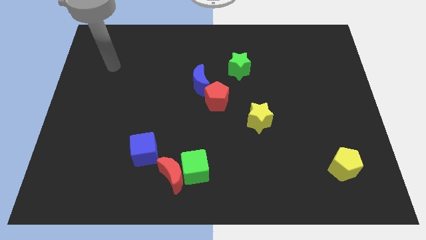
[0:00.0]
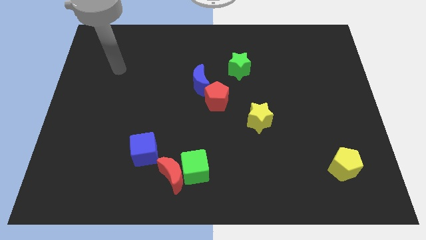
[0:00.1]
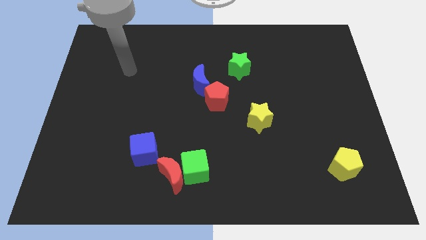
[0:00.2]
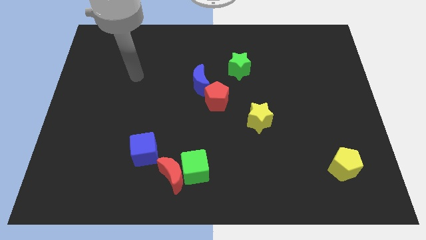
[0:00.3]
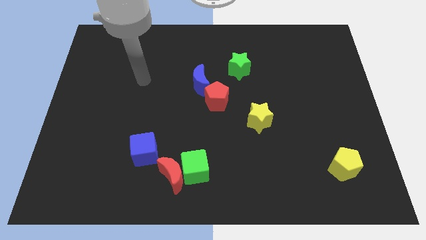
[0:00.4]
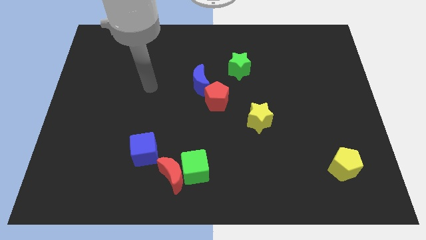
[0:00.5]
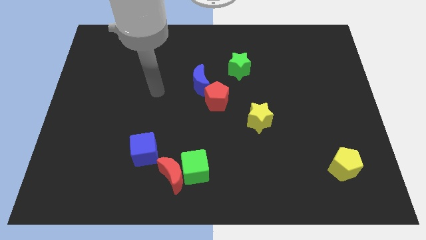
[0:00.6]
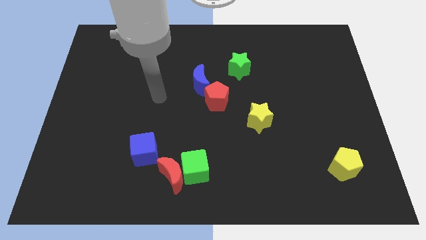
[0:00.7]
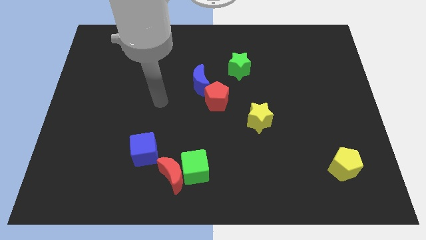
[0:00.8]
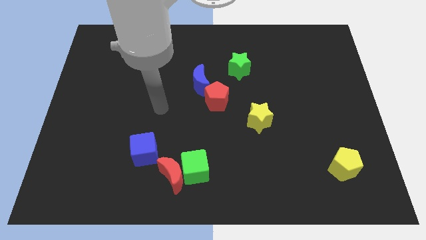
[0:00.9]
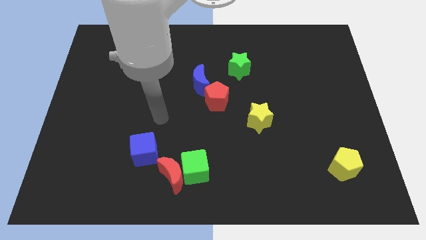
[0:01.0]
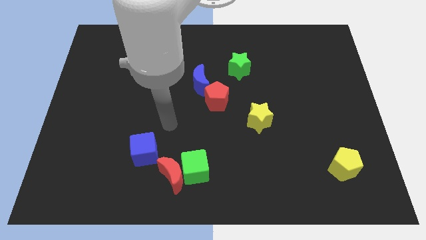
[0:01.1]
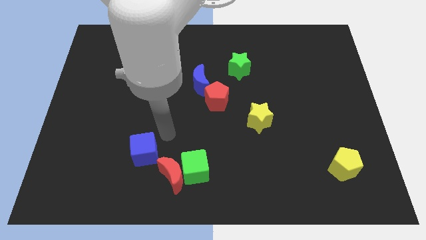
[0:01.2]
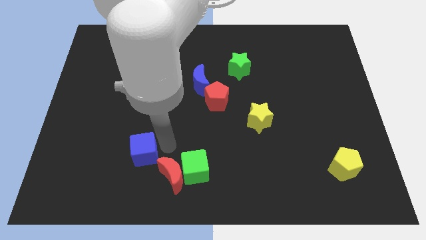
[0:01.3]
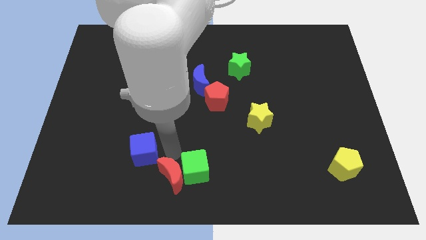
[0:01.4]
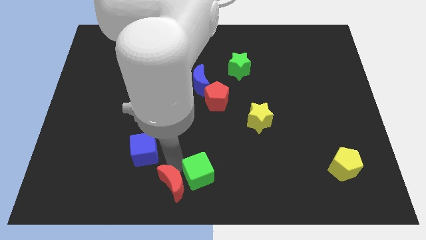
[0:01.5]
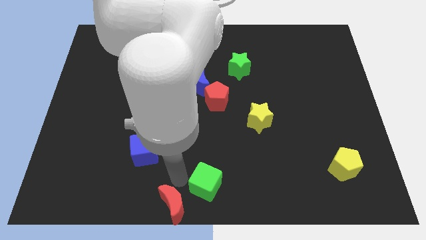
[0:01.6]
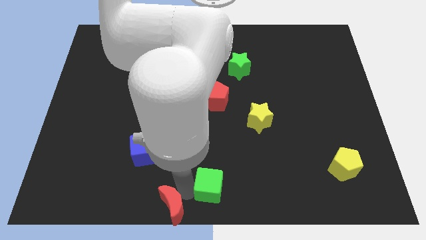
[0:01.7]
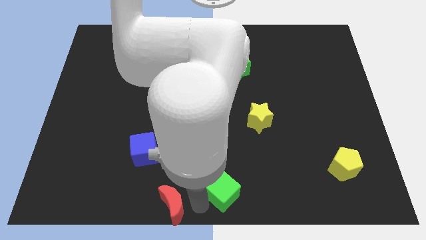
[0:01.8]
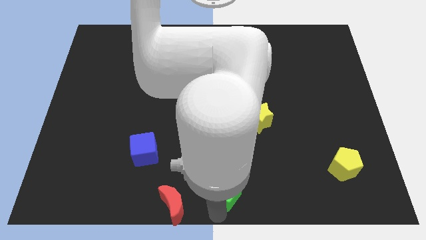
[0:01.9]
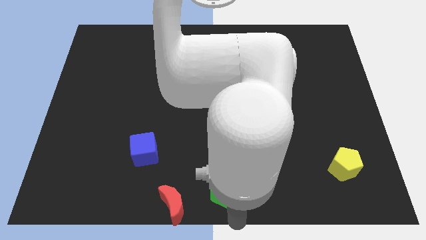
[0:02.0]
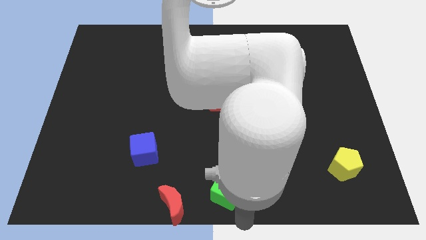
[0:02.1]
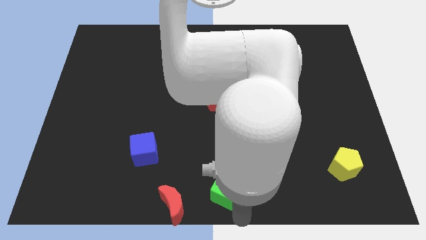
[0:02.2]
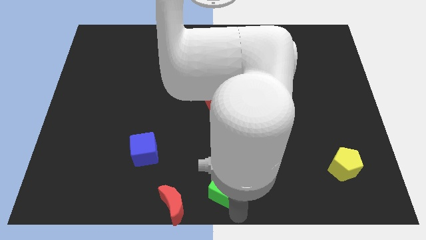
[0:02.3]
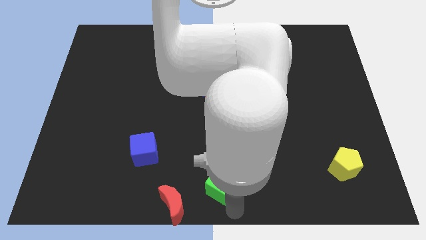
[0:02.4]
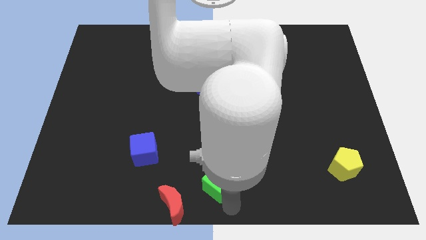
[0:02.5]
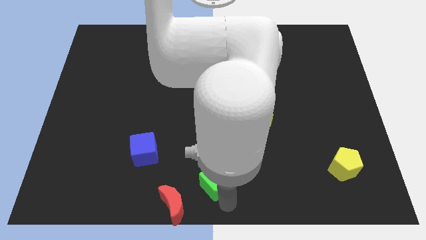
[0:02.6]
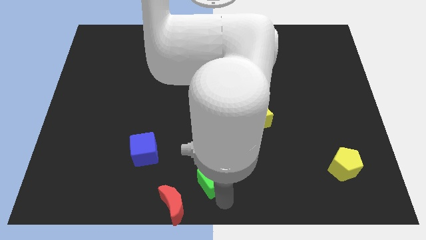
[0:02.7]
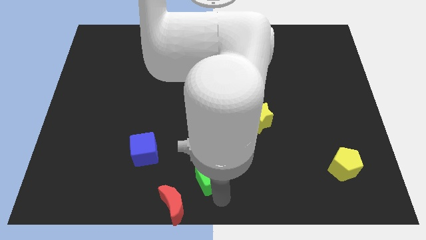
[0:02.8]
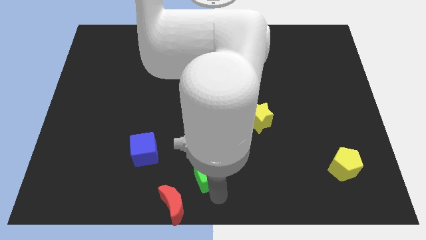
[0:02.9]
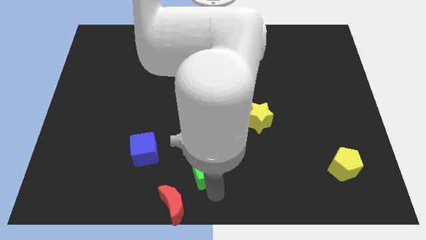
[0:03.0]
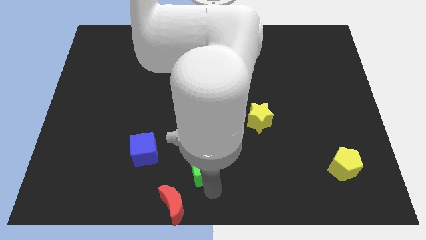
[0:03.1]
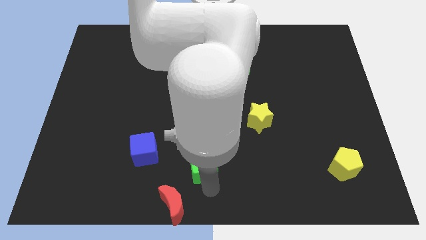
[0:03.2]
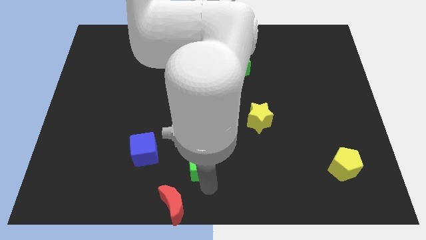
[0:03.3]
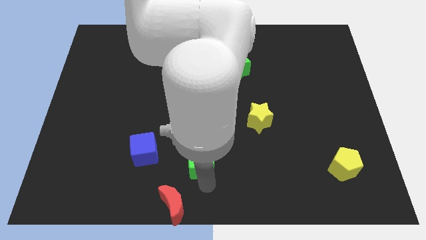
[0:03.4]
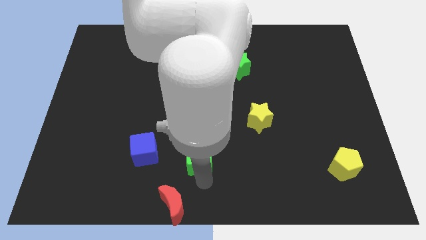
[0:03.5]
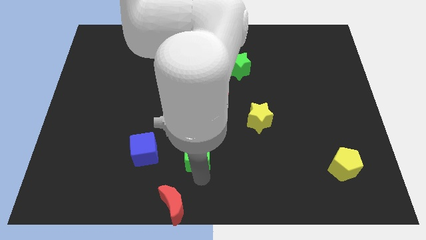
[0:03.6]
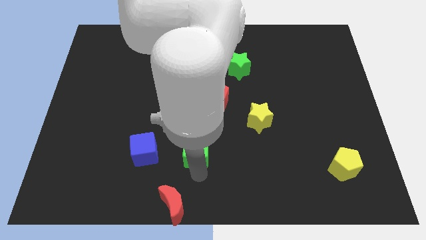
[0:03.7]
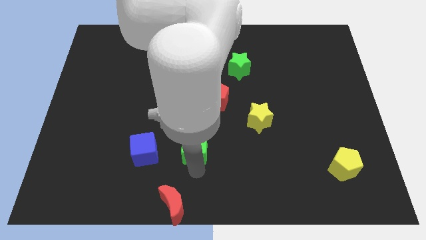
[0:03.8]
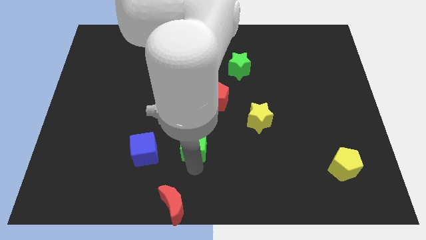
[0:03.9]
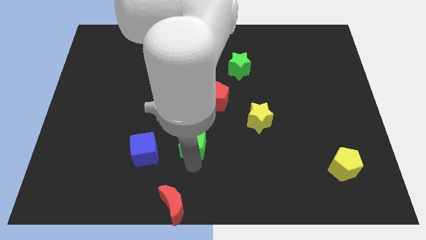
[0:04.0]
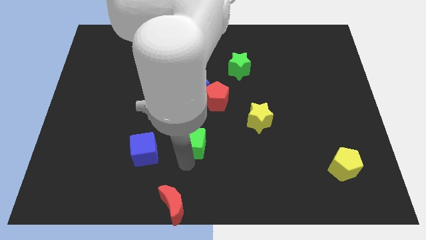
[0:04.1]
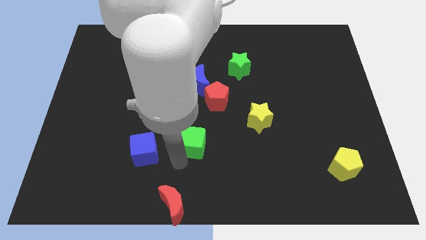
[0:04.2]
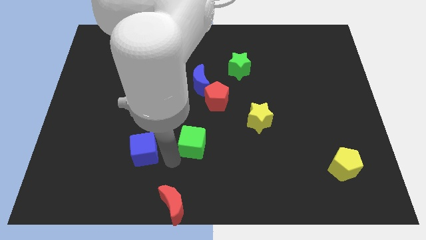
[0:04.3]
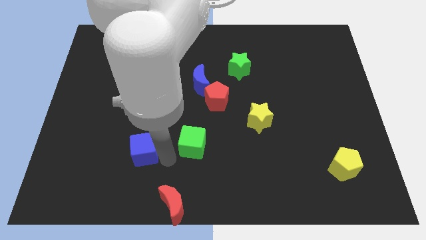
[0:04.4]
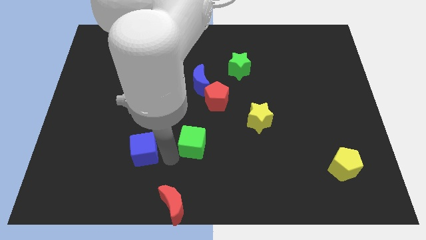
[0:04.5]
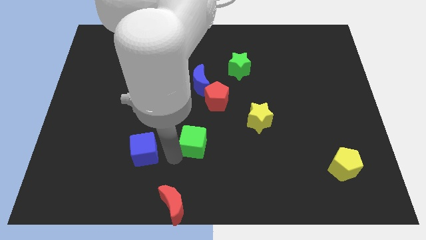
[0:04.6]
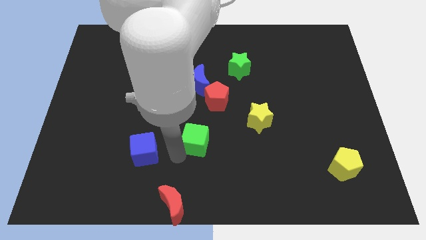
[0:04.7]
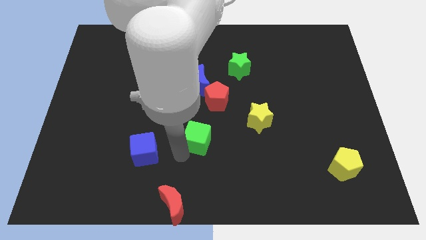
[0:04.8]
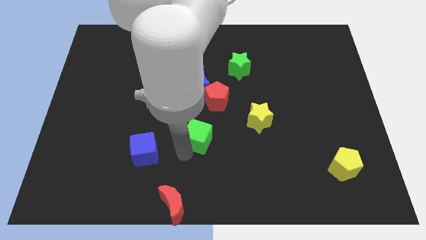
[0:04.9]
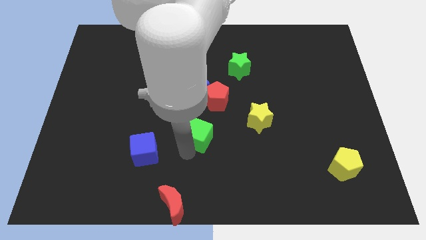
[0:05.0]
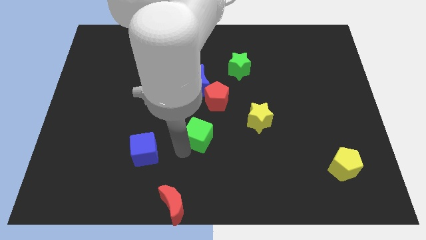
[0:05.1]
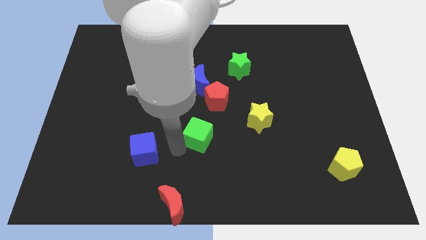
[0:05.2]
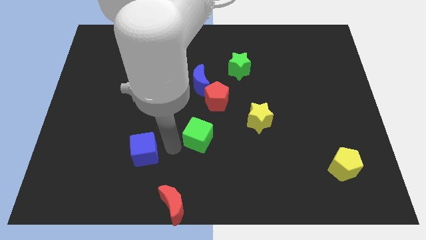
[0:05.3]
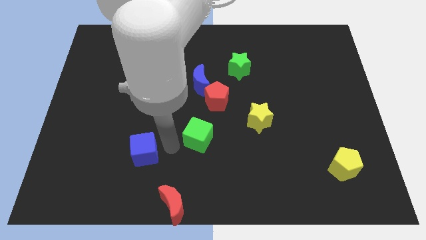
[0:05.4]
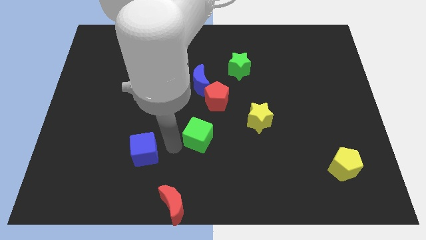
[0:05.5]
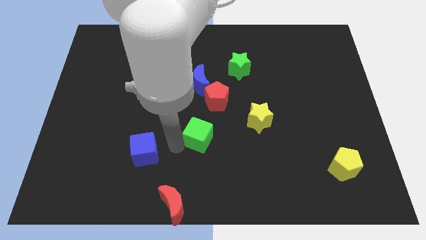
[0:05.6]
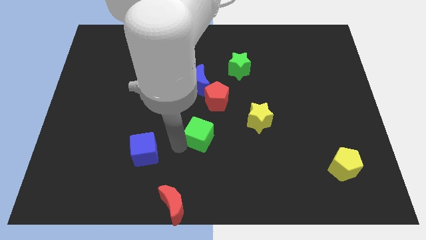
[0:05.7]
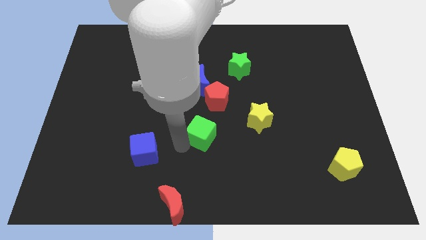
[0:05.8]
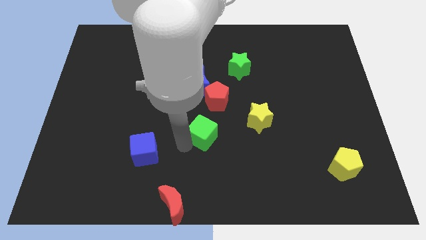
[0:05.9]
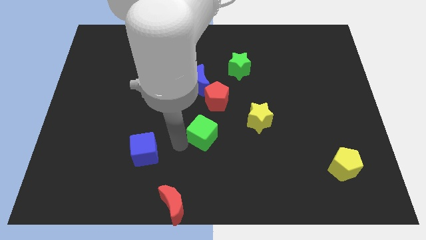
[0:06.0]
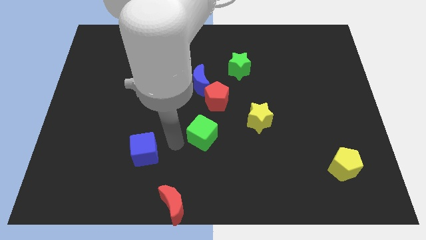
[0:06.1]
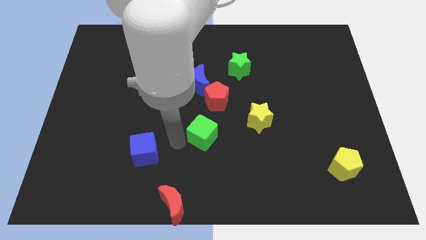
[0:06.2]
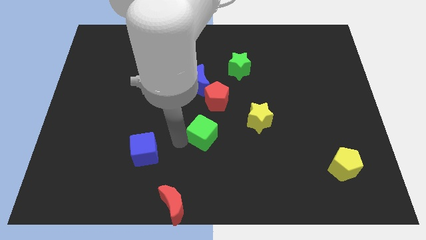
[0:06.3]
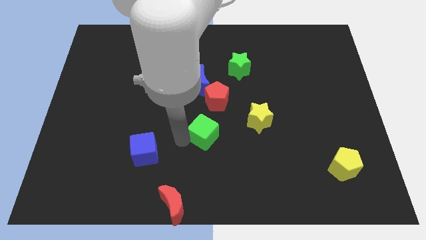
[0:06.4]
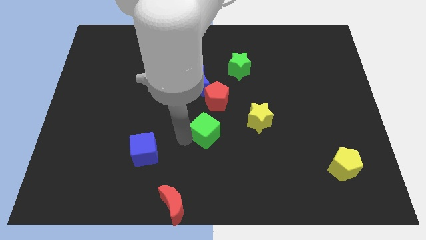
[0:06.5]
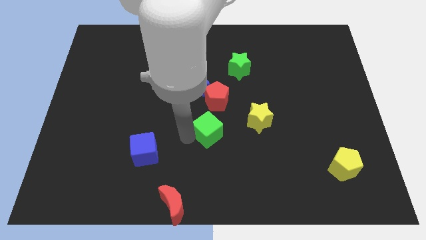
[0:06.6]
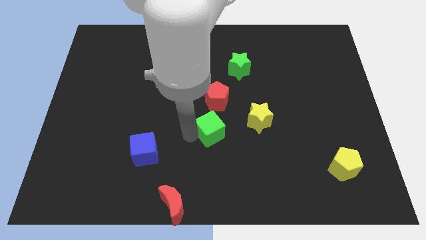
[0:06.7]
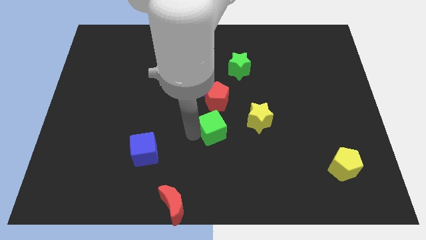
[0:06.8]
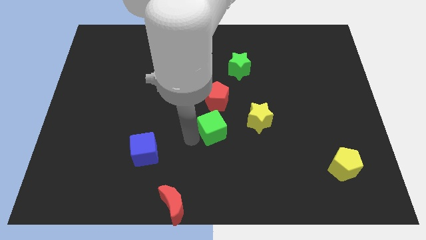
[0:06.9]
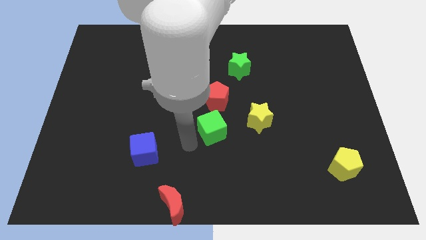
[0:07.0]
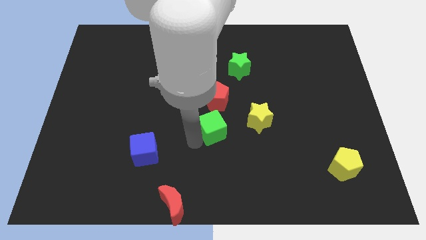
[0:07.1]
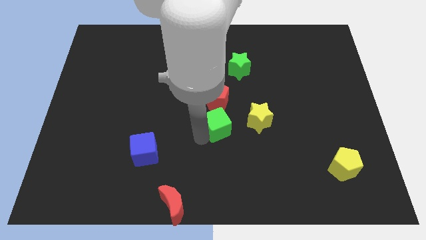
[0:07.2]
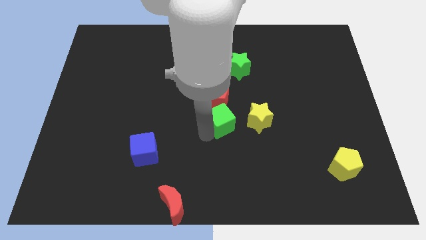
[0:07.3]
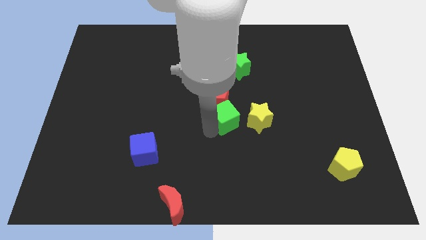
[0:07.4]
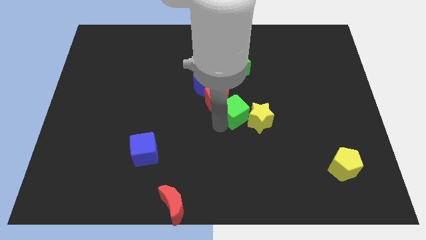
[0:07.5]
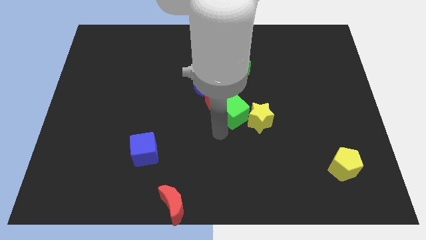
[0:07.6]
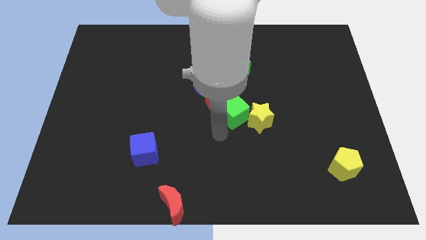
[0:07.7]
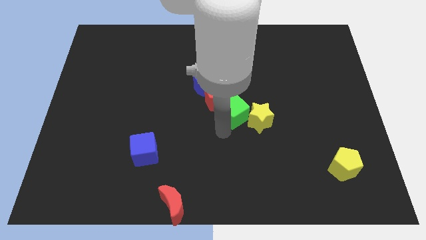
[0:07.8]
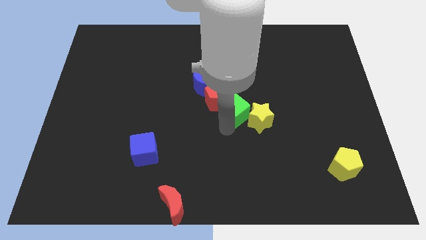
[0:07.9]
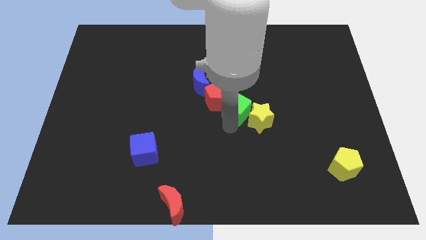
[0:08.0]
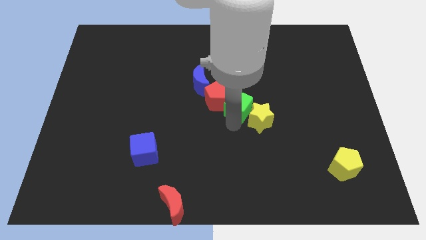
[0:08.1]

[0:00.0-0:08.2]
push the green cube to the top side of the yellow star
